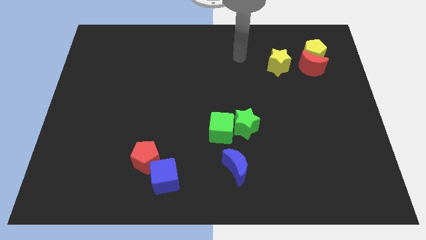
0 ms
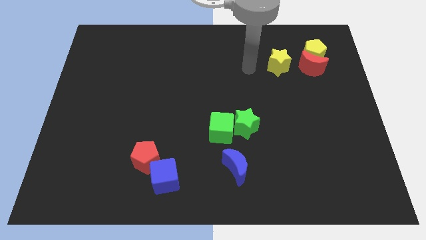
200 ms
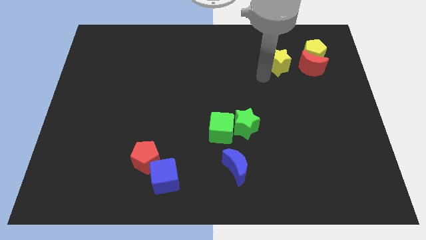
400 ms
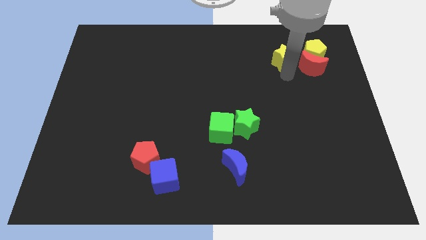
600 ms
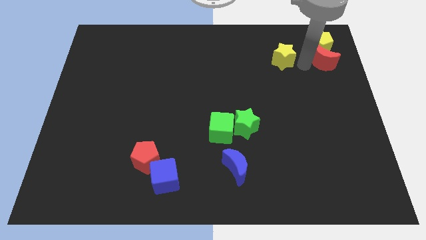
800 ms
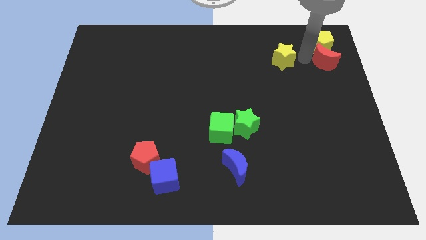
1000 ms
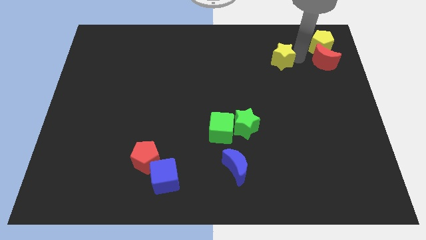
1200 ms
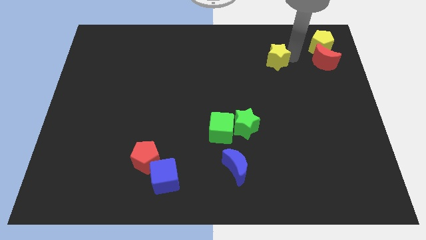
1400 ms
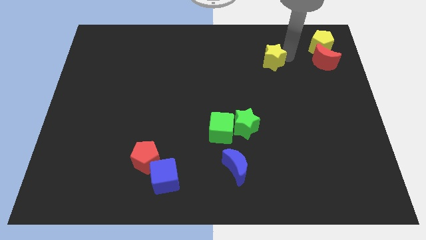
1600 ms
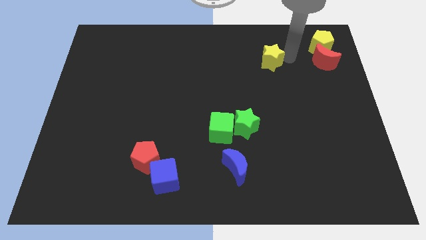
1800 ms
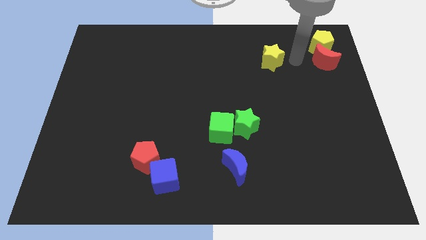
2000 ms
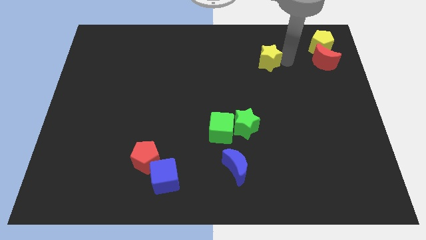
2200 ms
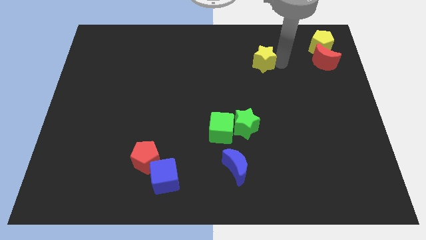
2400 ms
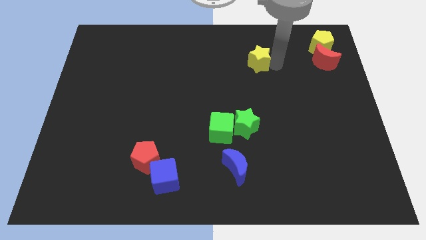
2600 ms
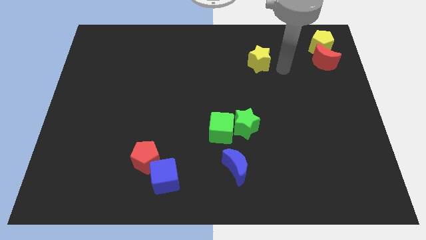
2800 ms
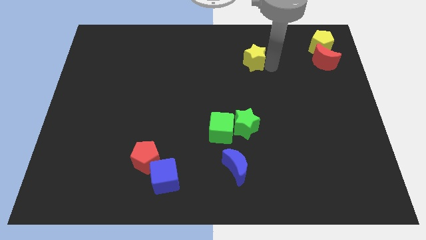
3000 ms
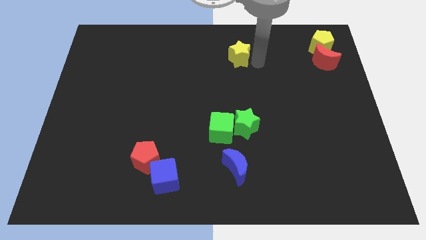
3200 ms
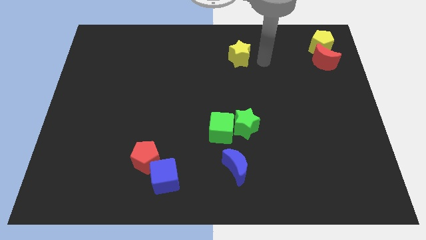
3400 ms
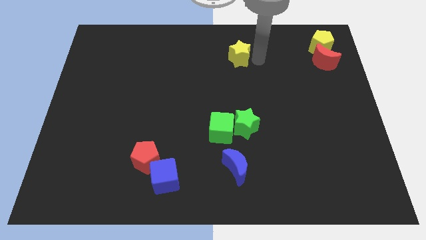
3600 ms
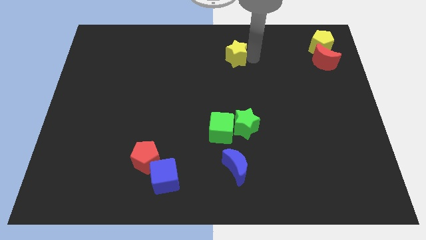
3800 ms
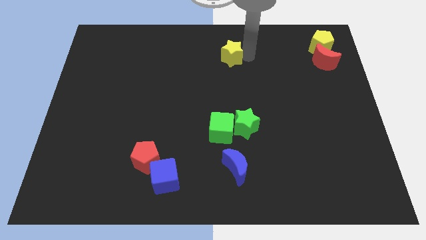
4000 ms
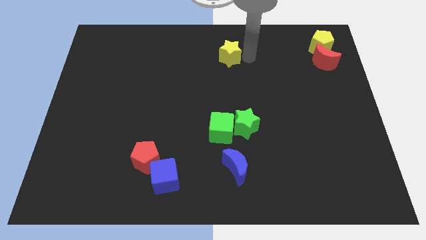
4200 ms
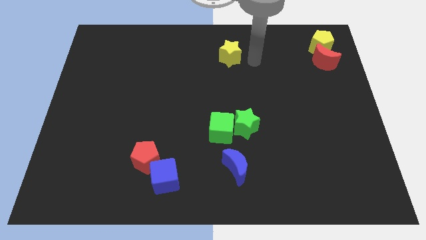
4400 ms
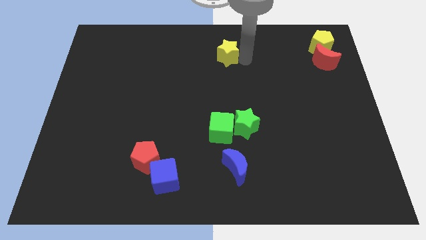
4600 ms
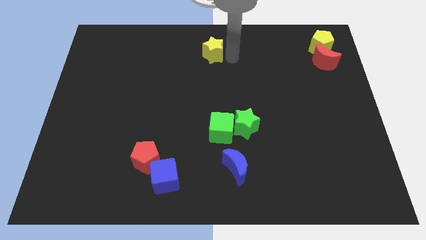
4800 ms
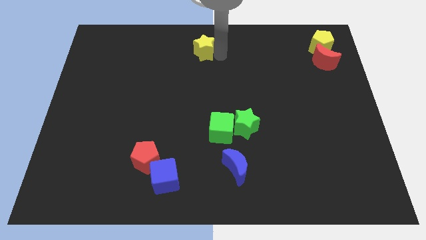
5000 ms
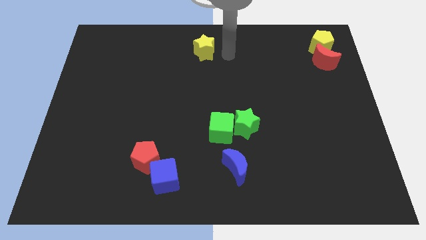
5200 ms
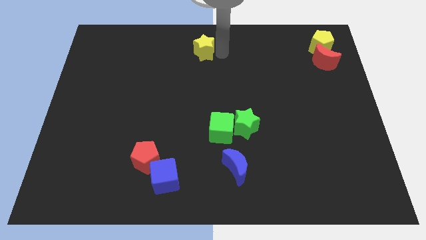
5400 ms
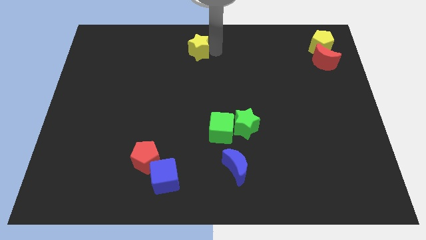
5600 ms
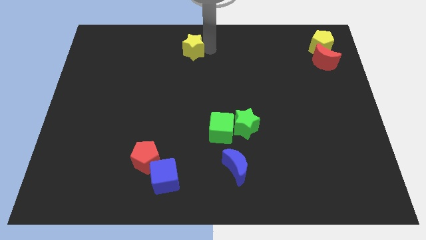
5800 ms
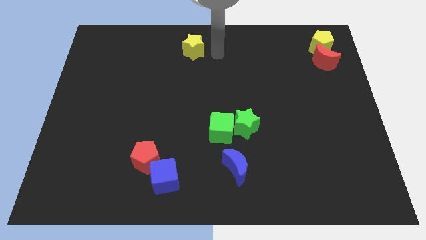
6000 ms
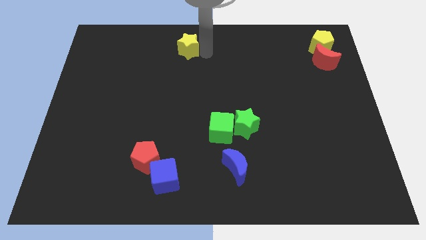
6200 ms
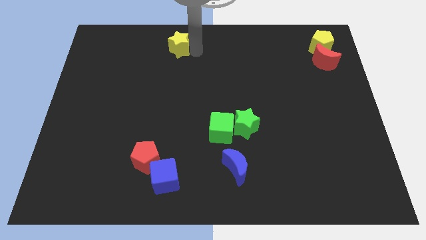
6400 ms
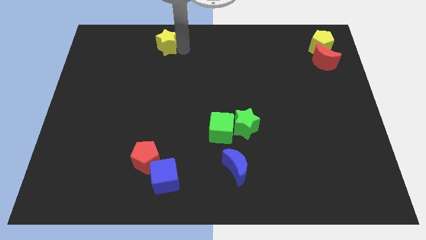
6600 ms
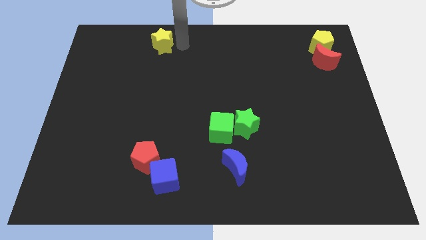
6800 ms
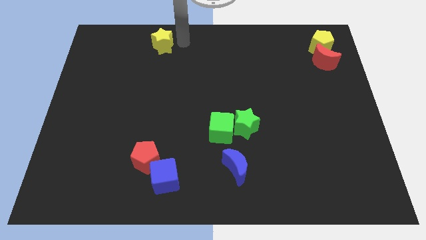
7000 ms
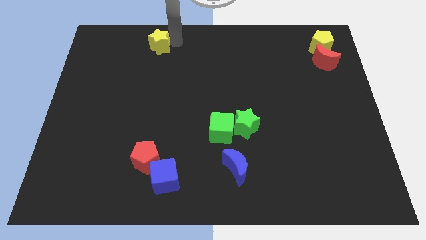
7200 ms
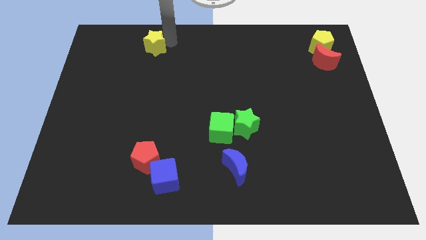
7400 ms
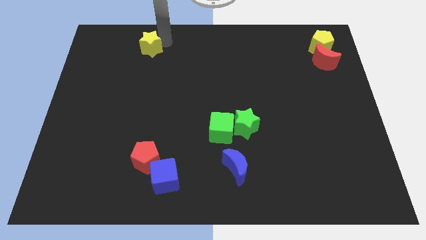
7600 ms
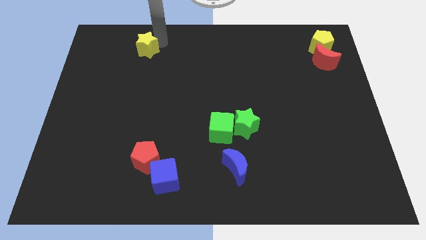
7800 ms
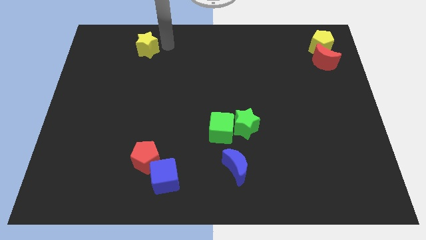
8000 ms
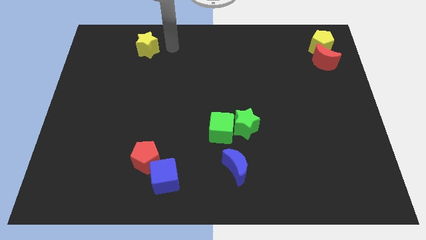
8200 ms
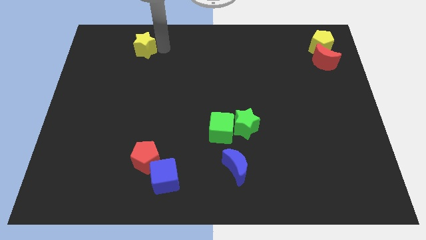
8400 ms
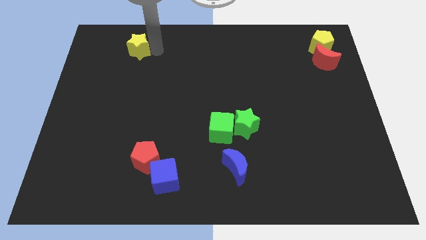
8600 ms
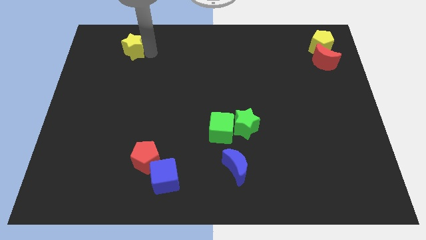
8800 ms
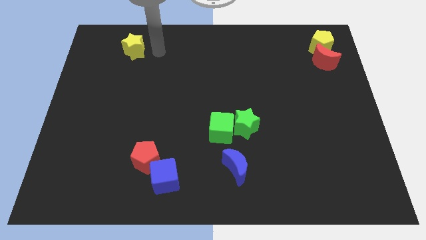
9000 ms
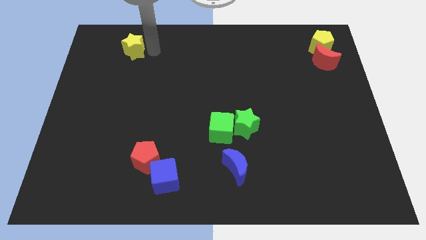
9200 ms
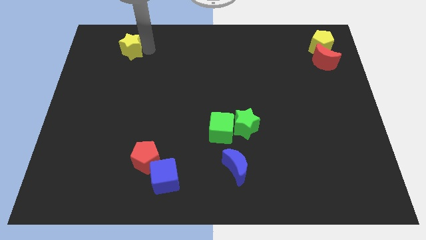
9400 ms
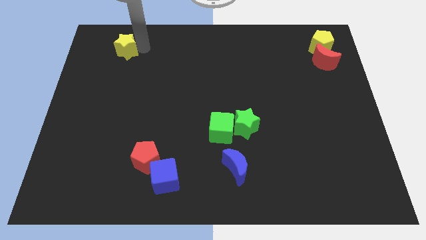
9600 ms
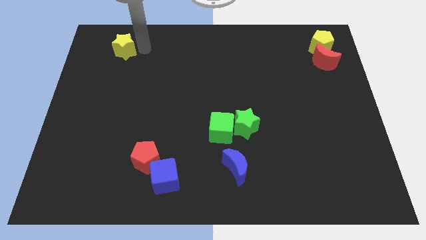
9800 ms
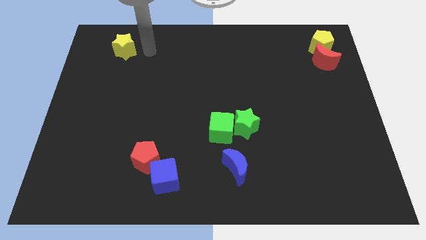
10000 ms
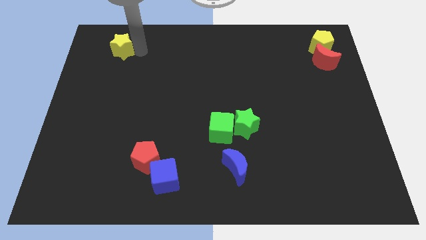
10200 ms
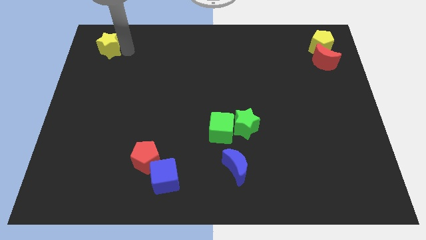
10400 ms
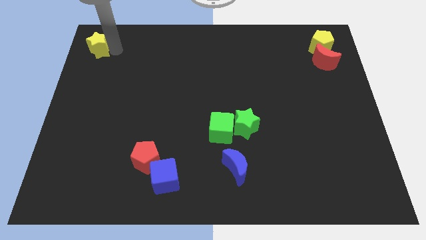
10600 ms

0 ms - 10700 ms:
slide the yellow star to the top left of the board

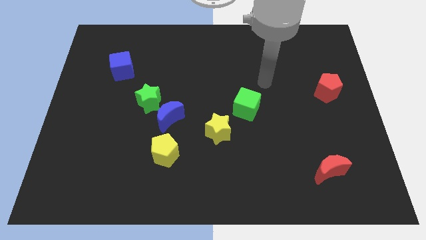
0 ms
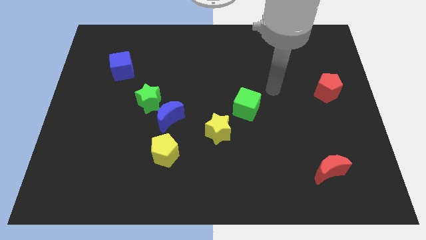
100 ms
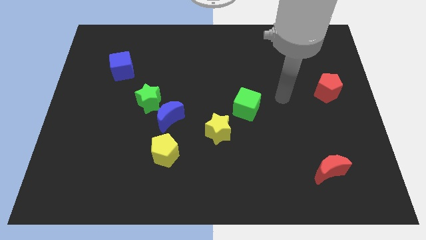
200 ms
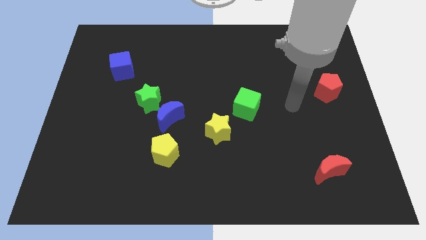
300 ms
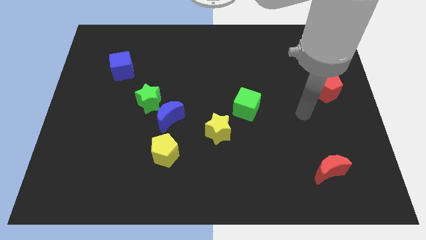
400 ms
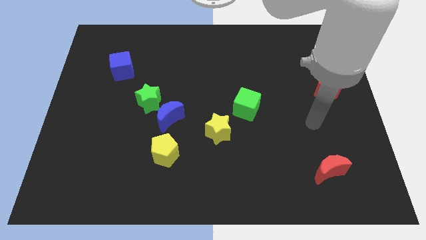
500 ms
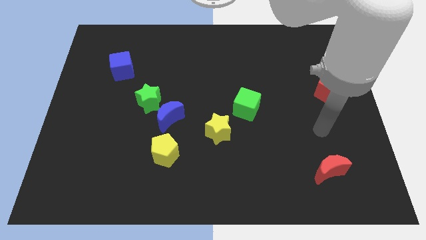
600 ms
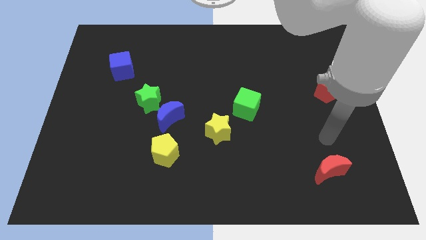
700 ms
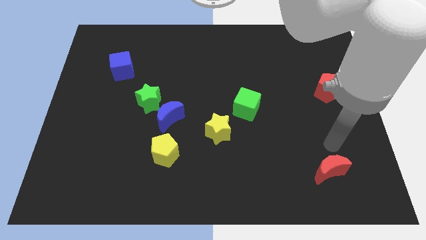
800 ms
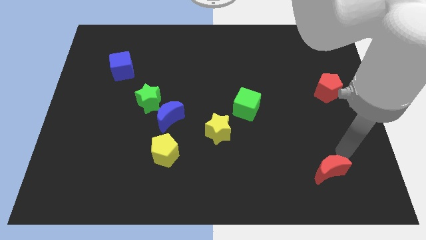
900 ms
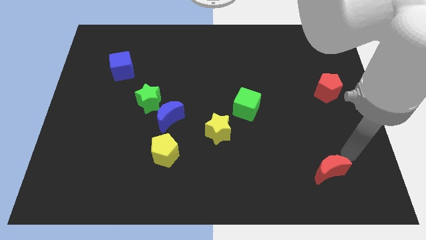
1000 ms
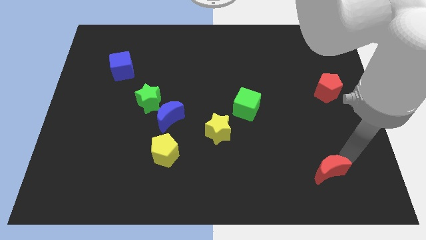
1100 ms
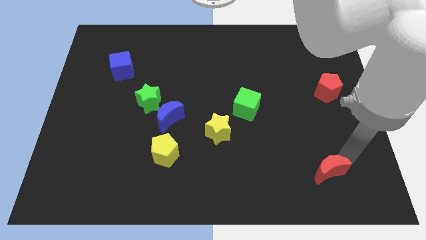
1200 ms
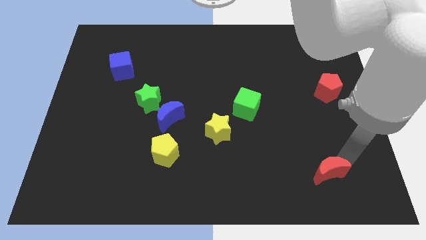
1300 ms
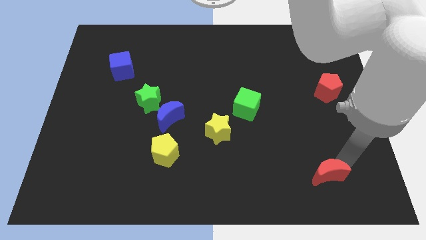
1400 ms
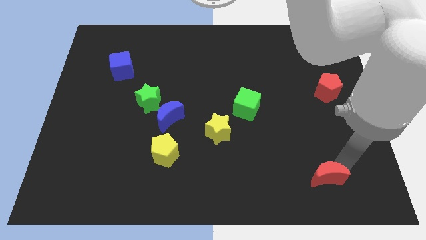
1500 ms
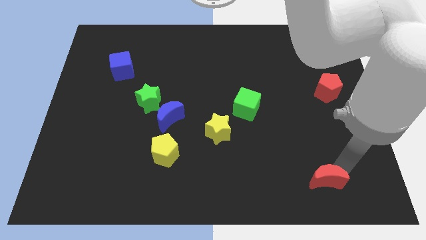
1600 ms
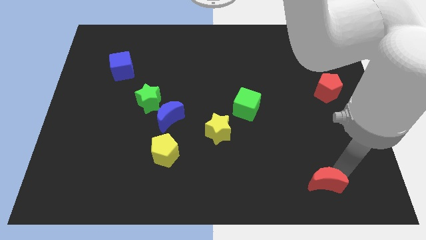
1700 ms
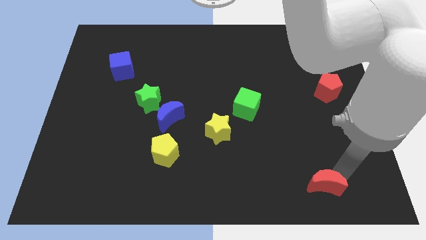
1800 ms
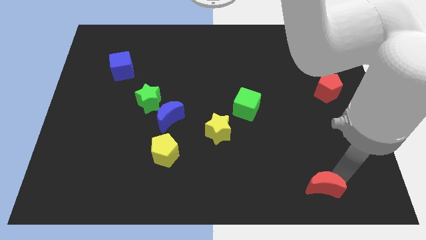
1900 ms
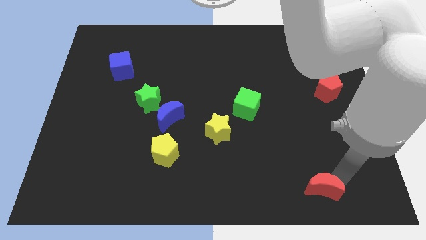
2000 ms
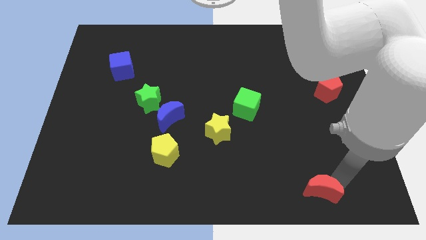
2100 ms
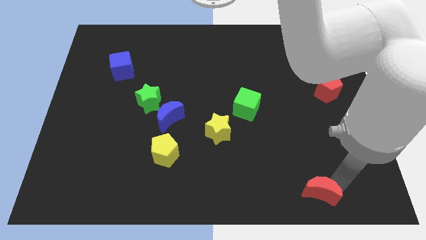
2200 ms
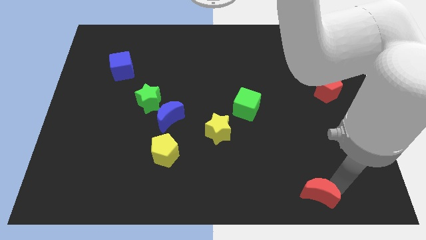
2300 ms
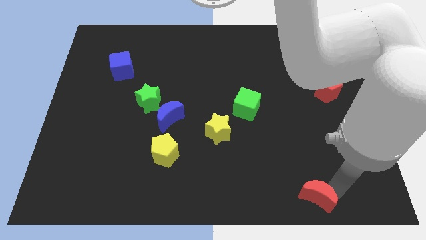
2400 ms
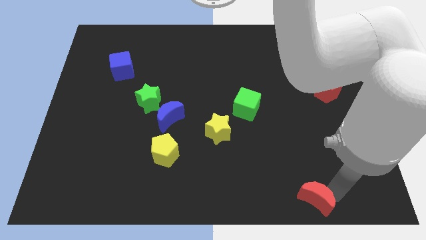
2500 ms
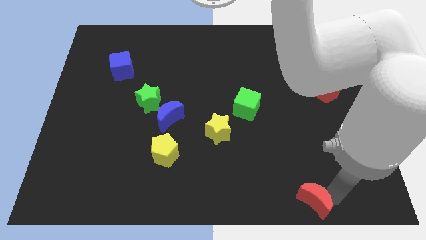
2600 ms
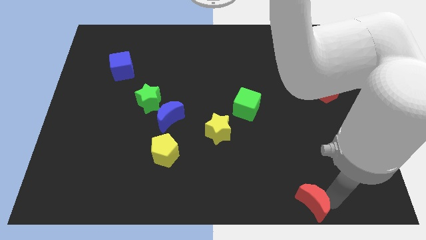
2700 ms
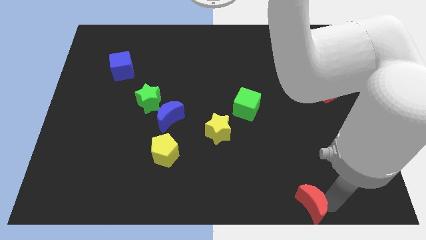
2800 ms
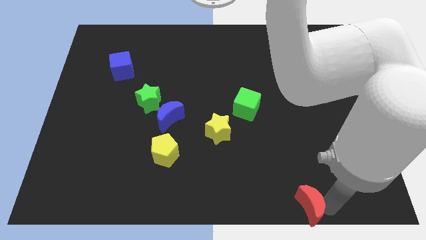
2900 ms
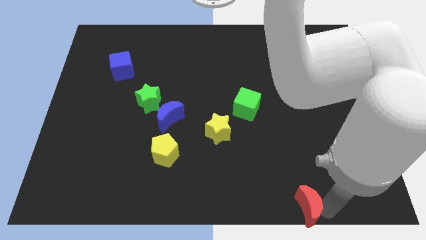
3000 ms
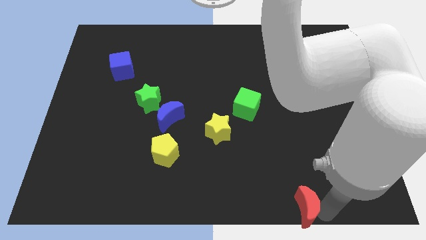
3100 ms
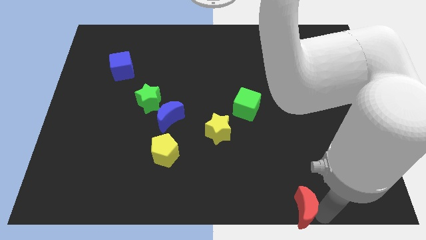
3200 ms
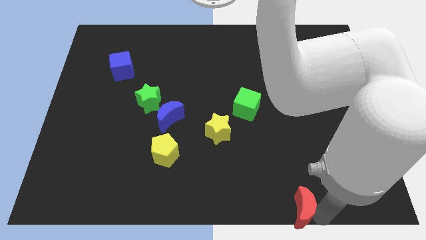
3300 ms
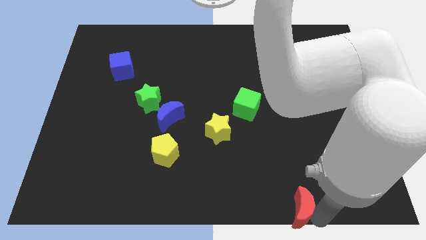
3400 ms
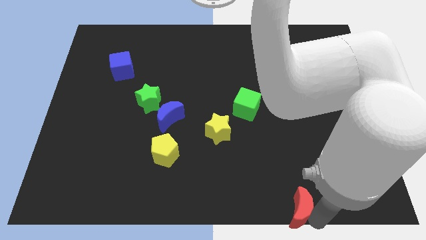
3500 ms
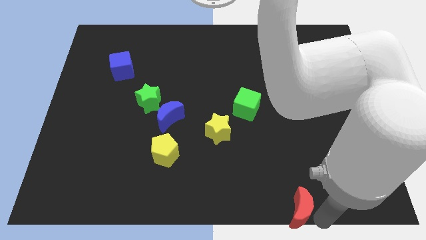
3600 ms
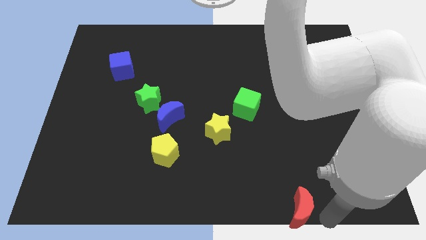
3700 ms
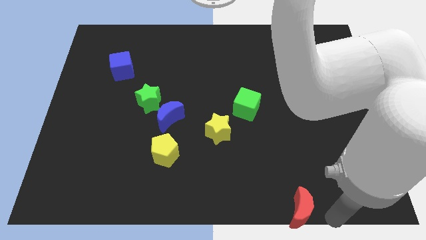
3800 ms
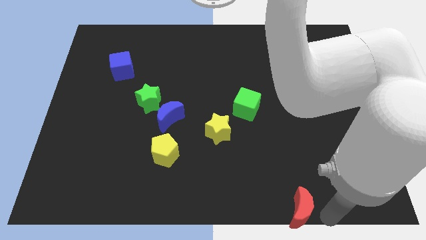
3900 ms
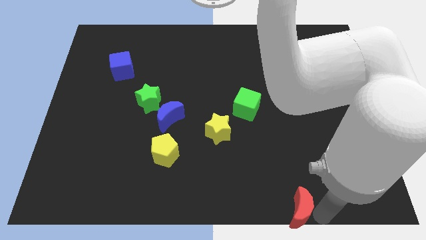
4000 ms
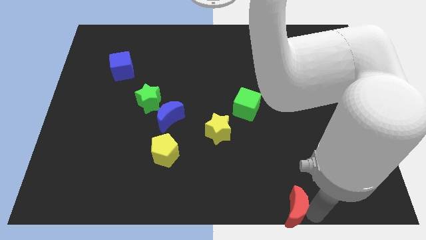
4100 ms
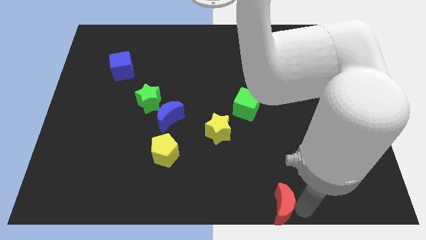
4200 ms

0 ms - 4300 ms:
push the red moon to the bottom
